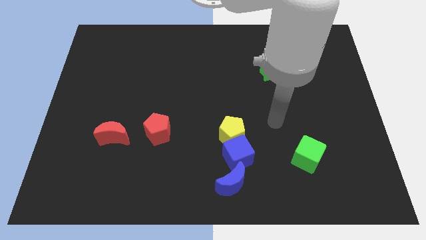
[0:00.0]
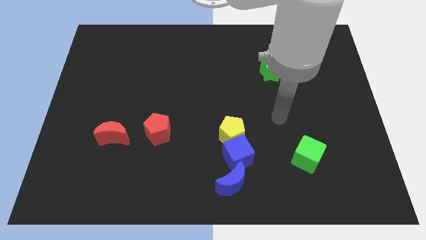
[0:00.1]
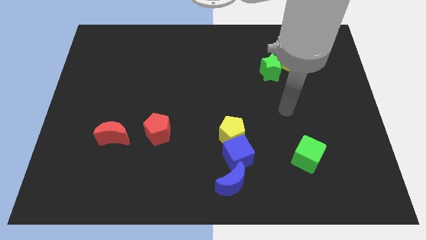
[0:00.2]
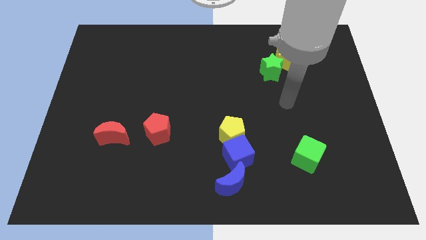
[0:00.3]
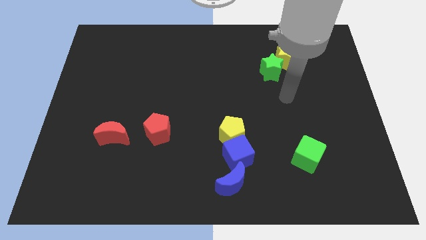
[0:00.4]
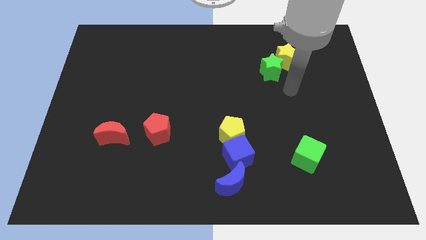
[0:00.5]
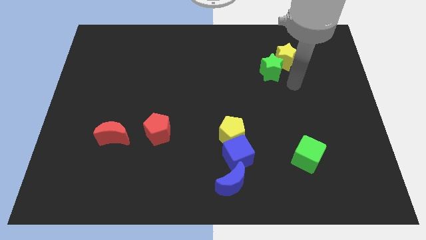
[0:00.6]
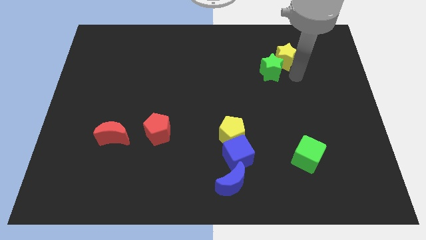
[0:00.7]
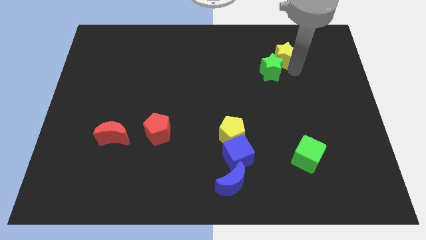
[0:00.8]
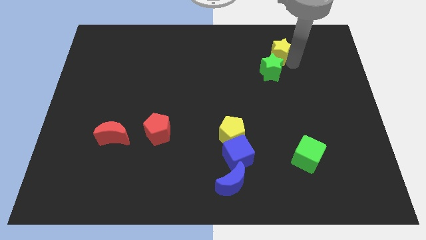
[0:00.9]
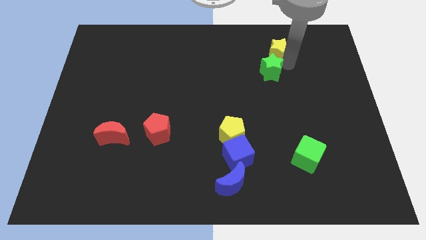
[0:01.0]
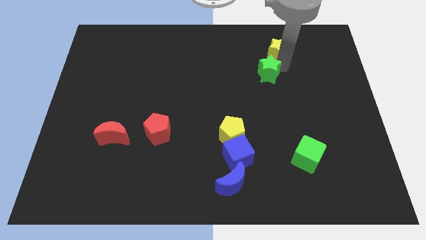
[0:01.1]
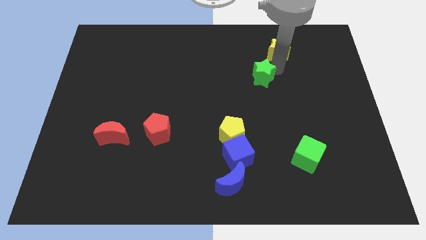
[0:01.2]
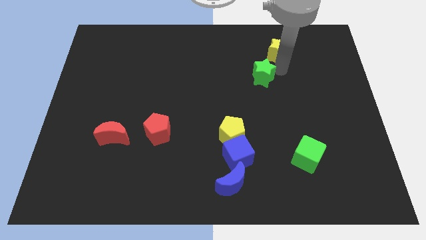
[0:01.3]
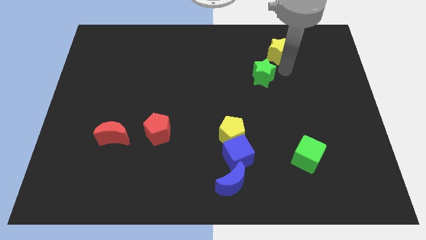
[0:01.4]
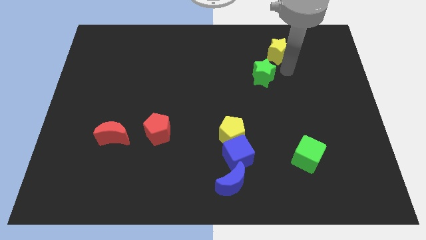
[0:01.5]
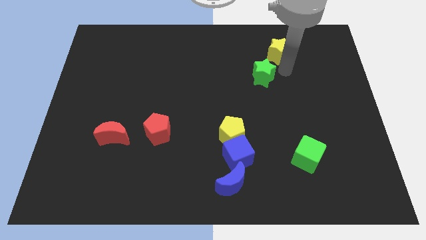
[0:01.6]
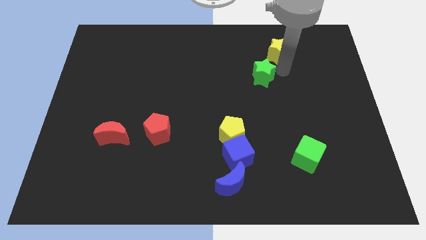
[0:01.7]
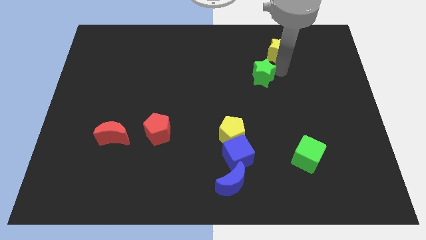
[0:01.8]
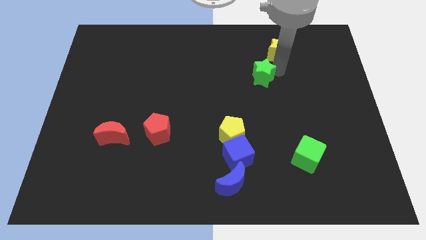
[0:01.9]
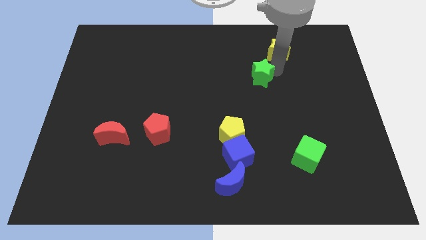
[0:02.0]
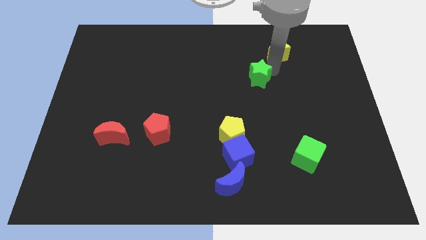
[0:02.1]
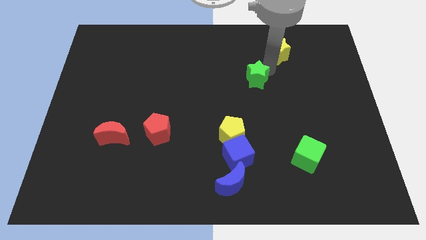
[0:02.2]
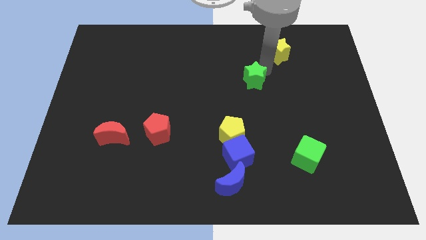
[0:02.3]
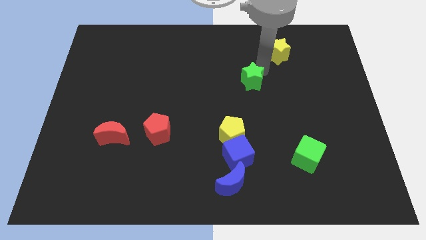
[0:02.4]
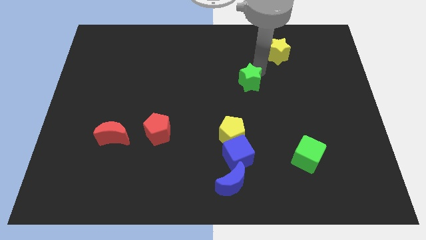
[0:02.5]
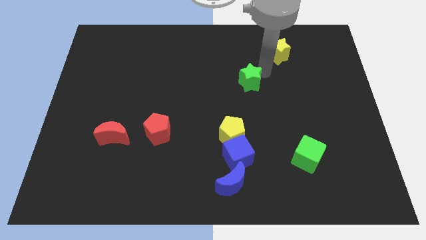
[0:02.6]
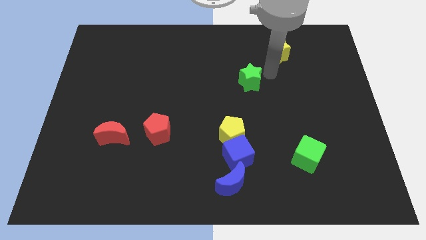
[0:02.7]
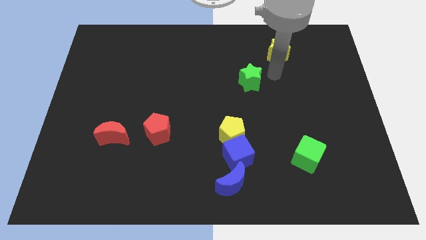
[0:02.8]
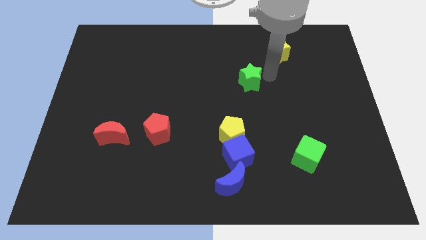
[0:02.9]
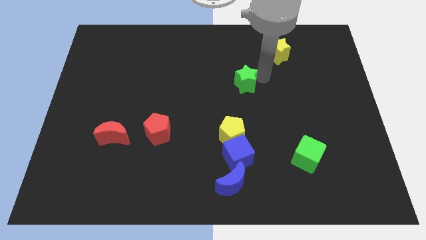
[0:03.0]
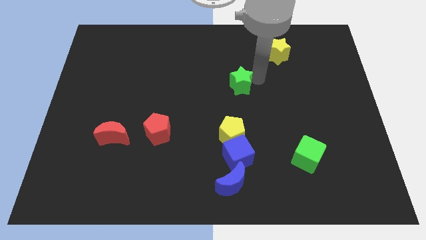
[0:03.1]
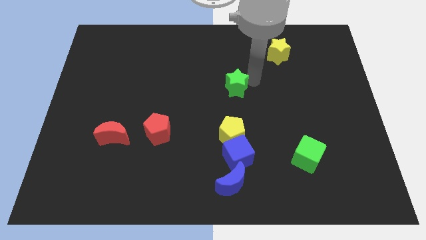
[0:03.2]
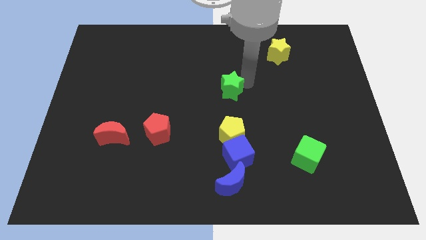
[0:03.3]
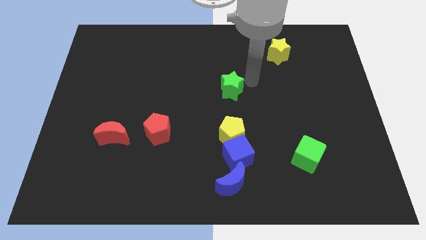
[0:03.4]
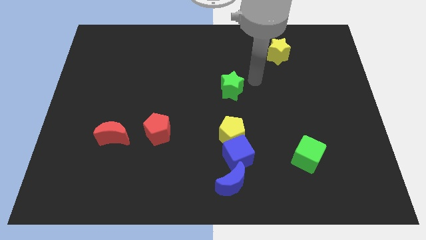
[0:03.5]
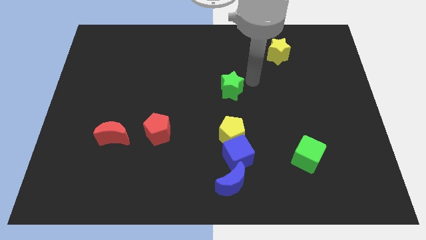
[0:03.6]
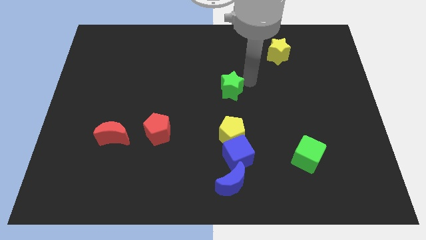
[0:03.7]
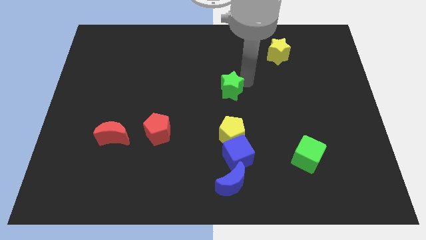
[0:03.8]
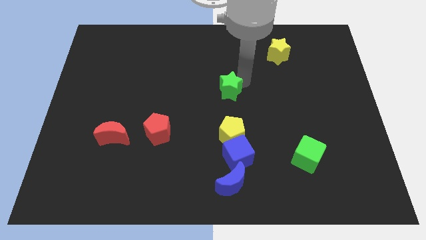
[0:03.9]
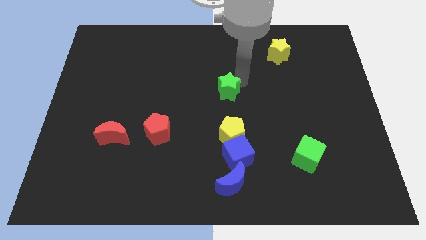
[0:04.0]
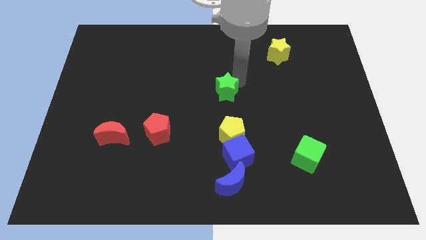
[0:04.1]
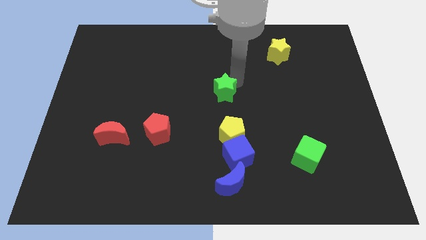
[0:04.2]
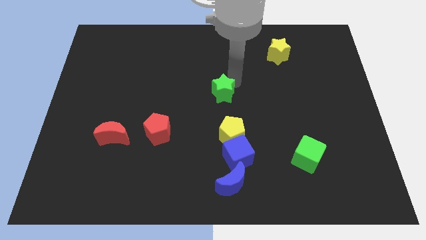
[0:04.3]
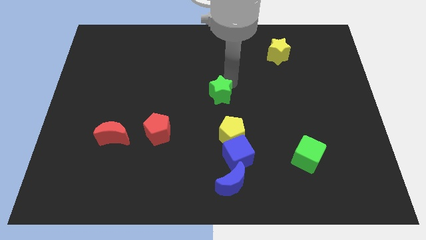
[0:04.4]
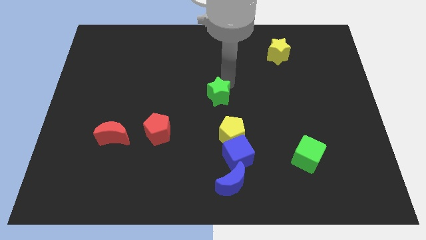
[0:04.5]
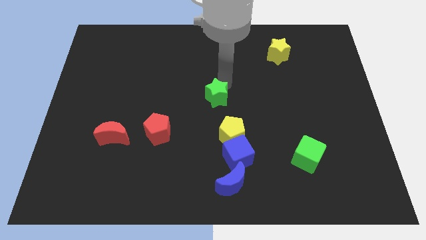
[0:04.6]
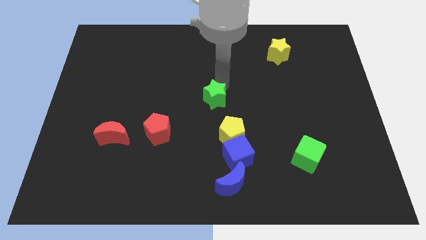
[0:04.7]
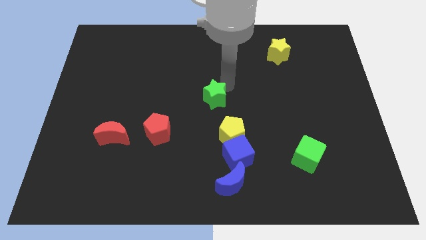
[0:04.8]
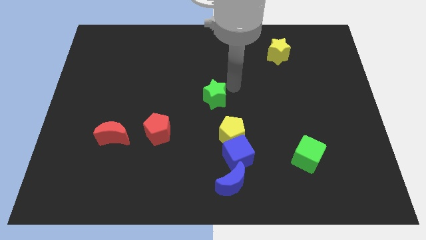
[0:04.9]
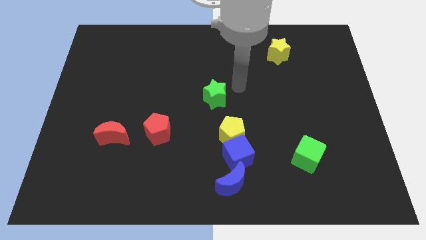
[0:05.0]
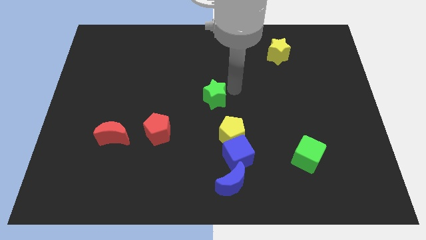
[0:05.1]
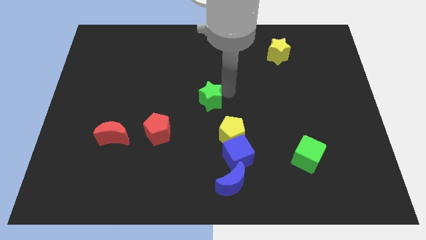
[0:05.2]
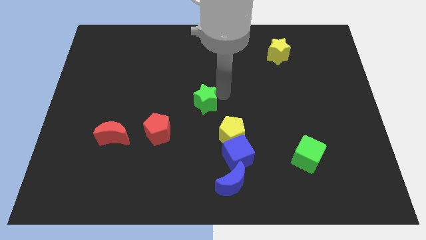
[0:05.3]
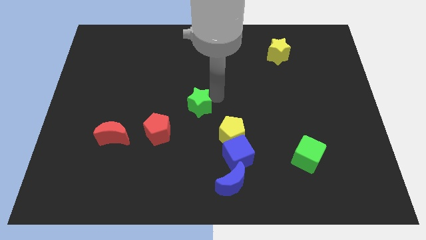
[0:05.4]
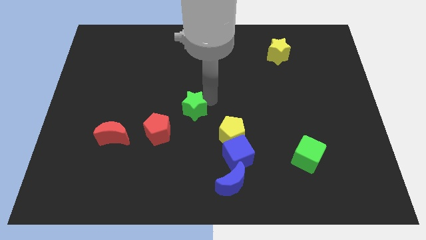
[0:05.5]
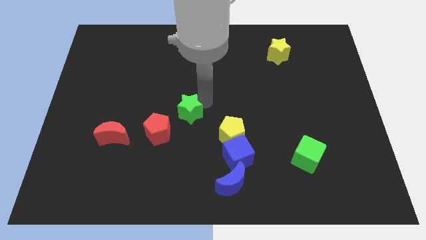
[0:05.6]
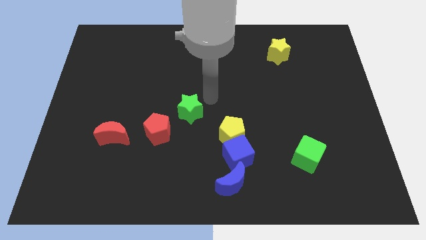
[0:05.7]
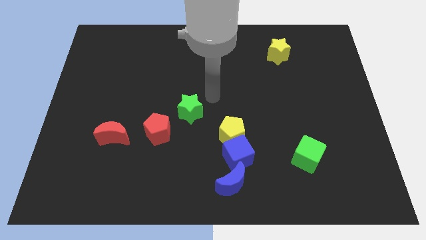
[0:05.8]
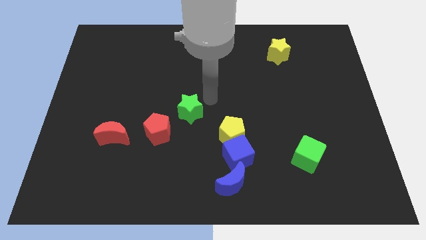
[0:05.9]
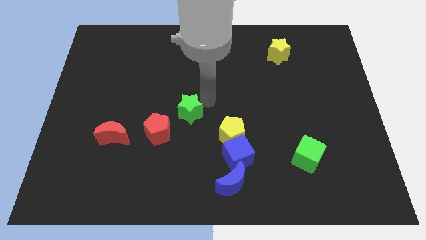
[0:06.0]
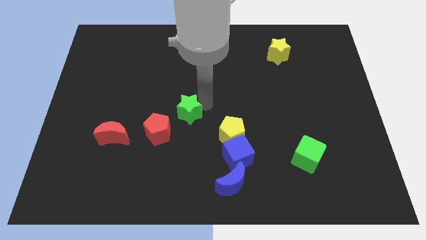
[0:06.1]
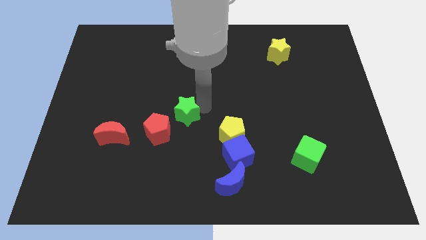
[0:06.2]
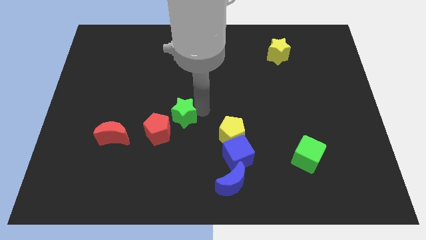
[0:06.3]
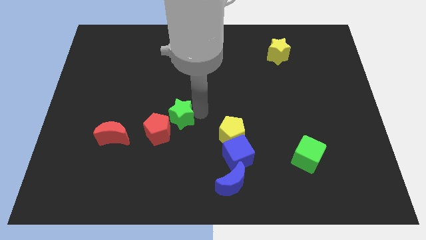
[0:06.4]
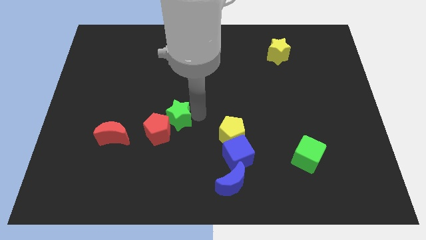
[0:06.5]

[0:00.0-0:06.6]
slide the green star to the red pentagon

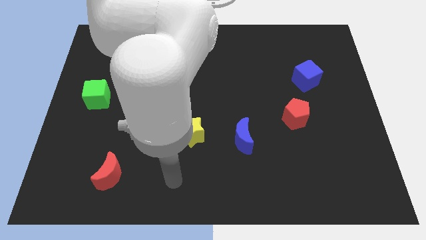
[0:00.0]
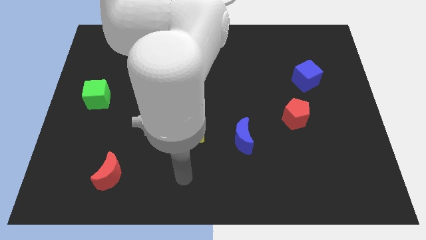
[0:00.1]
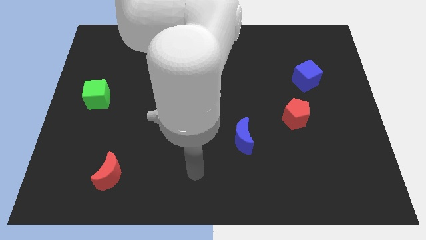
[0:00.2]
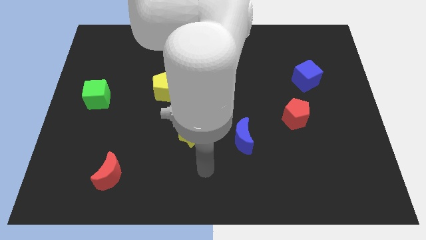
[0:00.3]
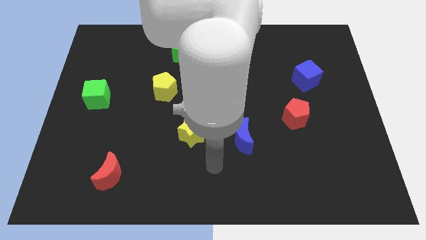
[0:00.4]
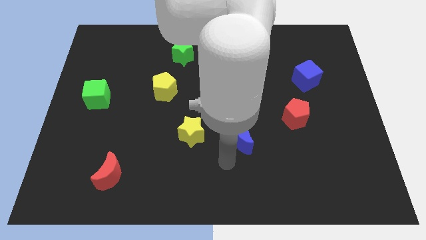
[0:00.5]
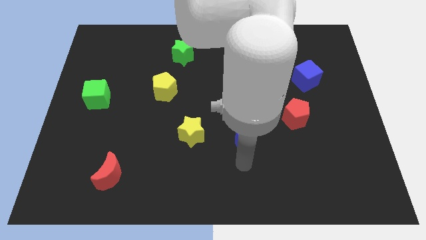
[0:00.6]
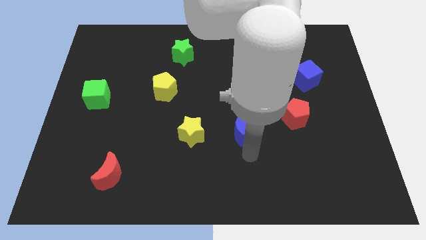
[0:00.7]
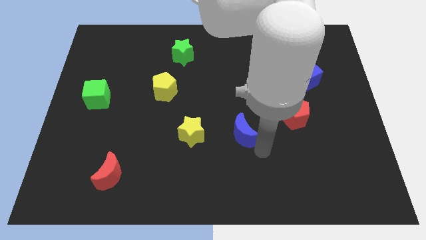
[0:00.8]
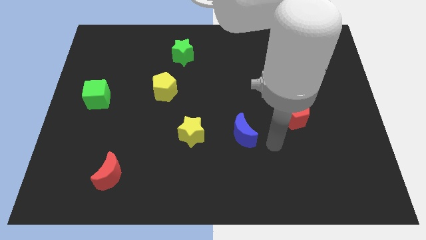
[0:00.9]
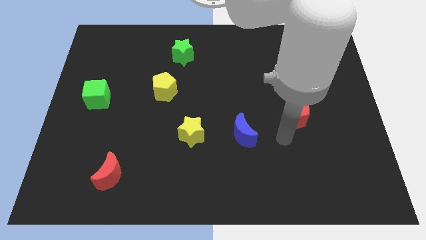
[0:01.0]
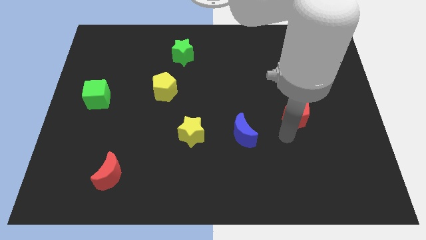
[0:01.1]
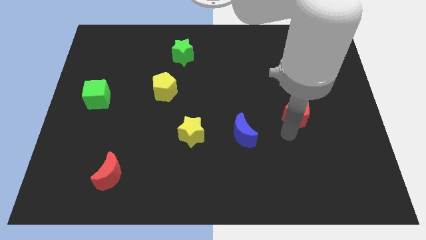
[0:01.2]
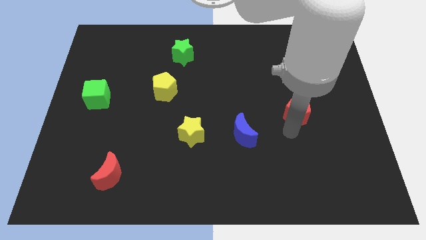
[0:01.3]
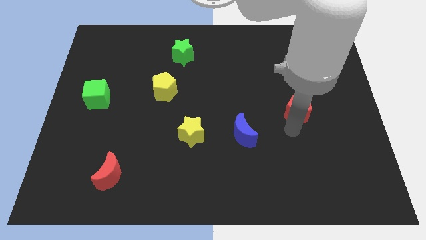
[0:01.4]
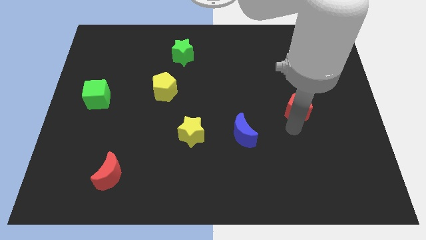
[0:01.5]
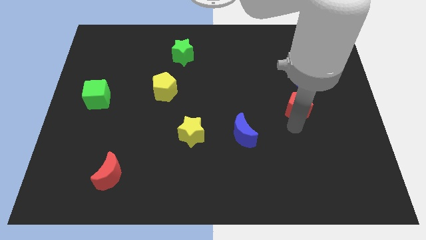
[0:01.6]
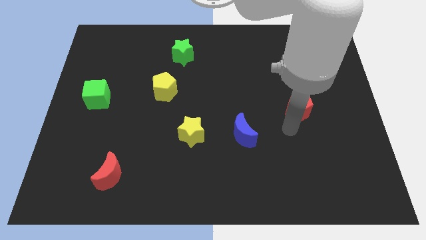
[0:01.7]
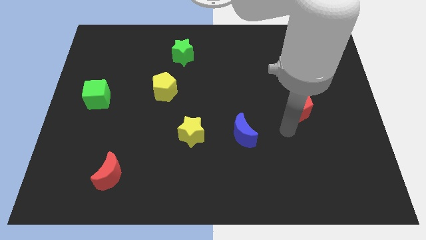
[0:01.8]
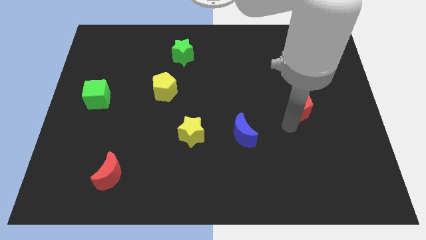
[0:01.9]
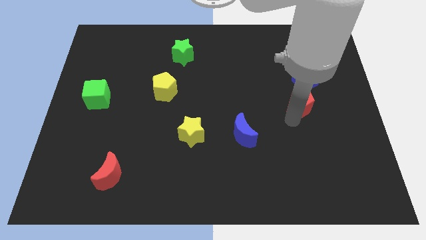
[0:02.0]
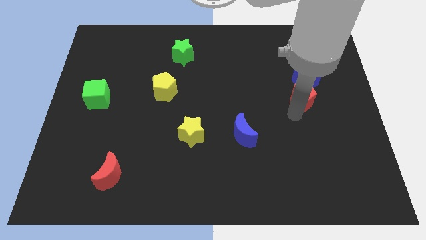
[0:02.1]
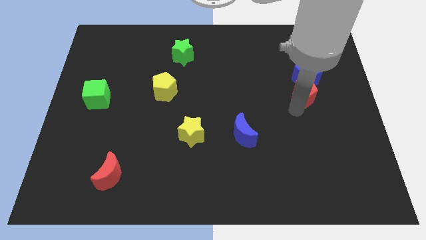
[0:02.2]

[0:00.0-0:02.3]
put the red pentagon towards the blue cube
